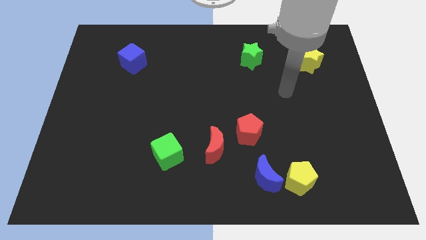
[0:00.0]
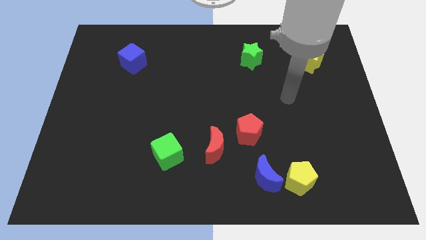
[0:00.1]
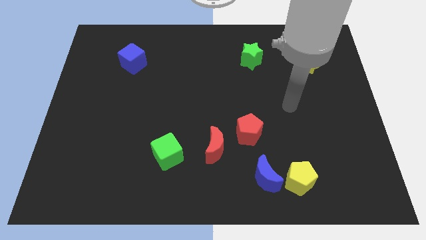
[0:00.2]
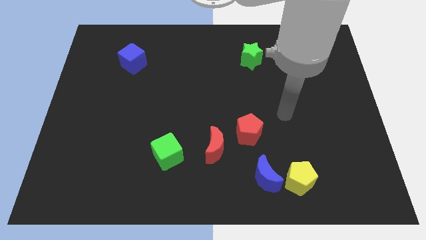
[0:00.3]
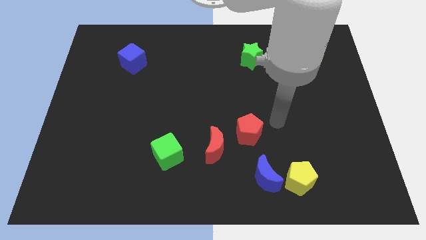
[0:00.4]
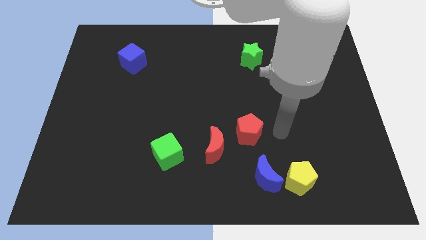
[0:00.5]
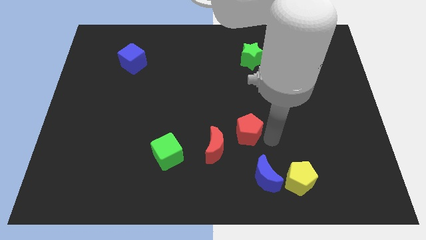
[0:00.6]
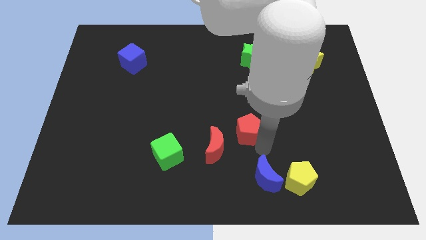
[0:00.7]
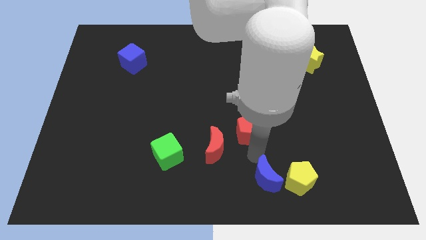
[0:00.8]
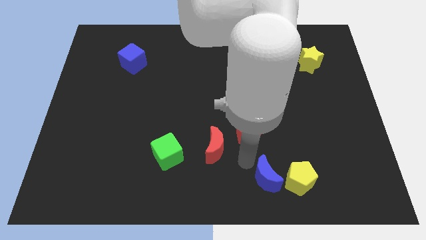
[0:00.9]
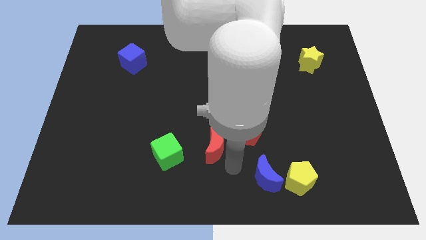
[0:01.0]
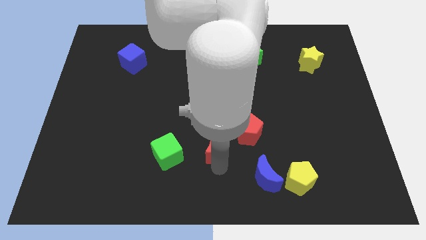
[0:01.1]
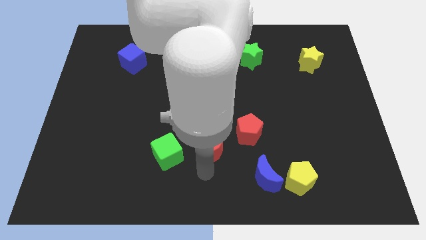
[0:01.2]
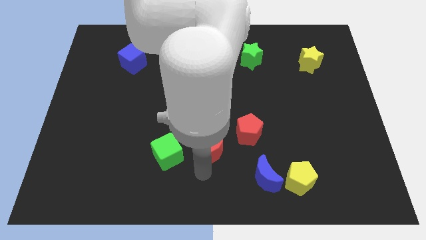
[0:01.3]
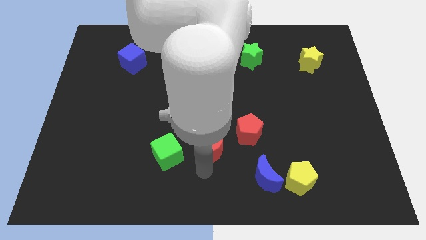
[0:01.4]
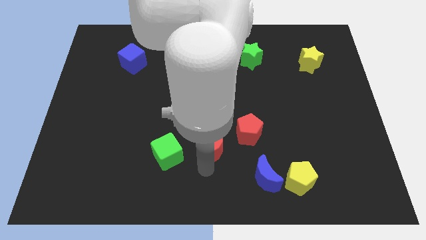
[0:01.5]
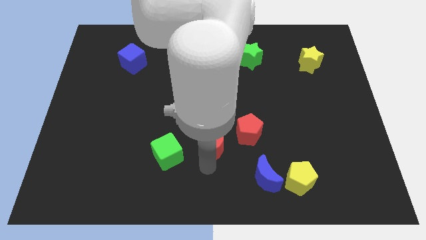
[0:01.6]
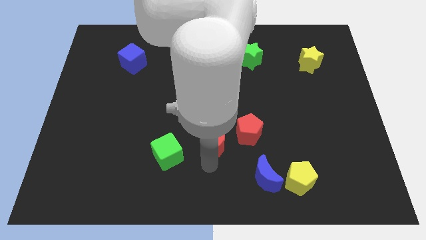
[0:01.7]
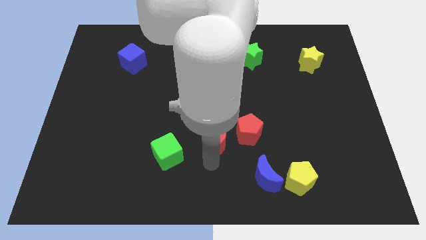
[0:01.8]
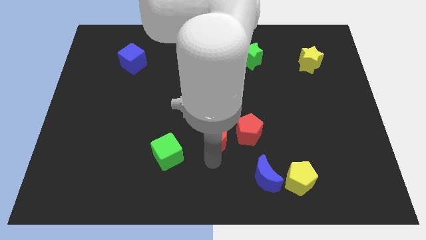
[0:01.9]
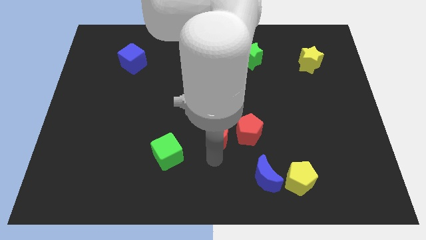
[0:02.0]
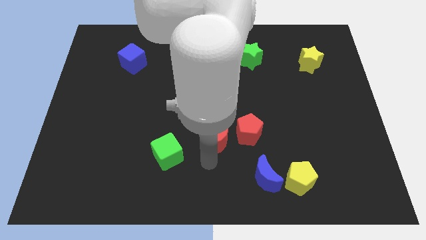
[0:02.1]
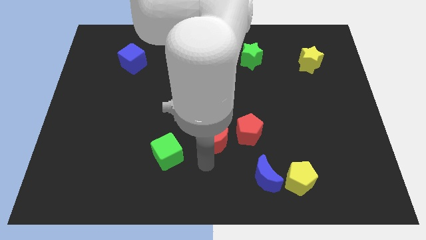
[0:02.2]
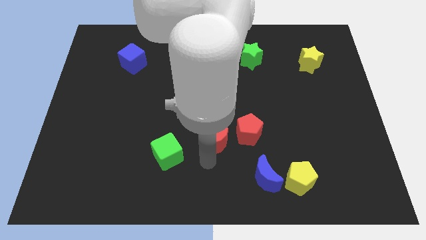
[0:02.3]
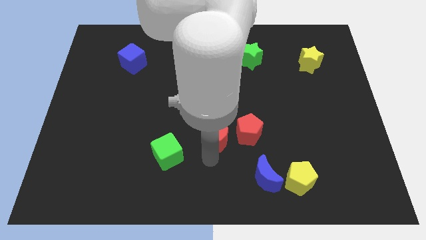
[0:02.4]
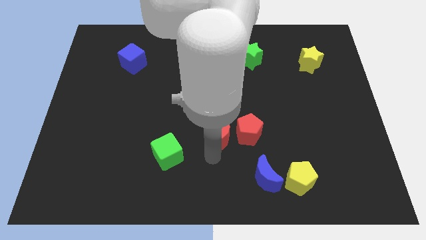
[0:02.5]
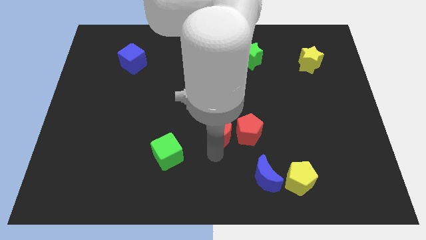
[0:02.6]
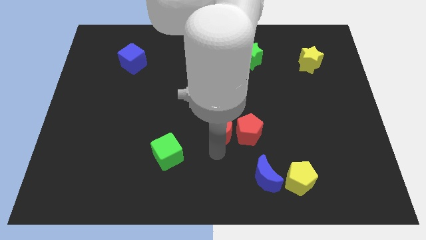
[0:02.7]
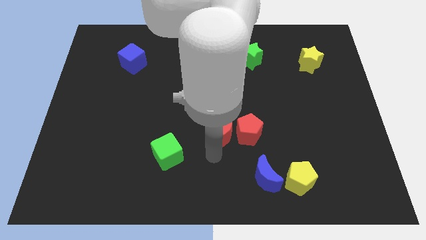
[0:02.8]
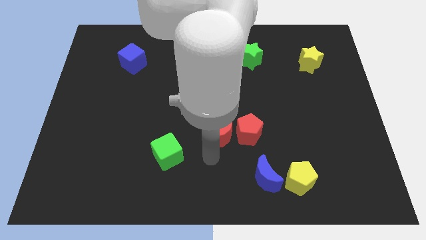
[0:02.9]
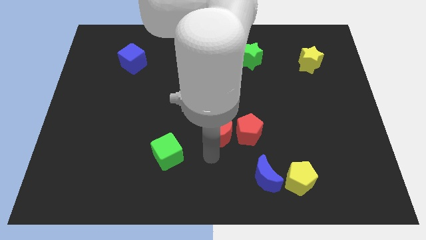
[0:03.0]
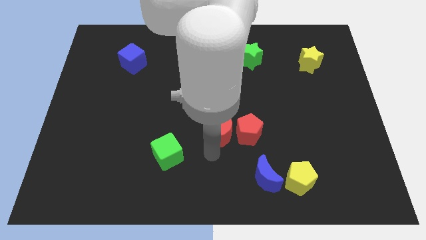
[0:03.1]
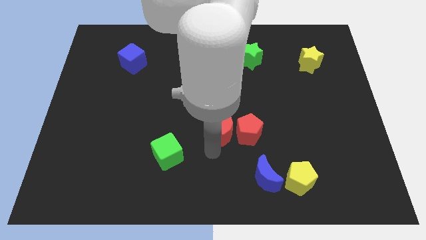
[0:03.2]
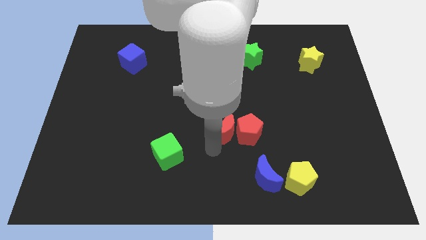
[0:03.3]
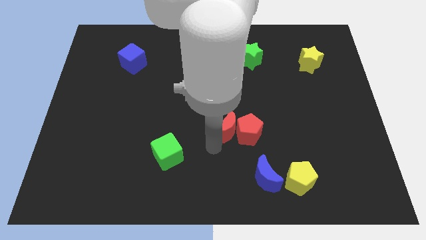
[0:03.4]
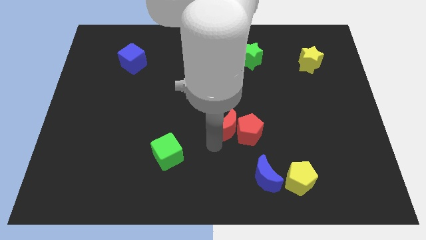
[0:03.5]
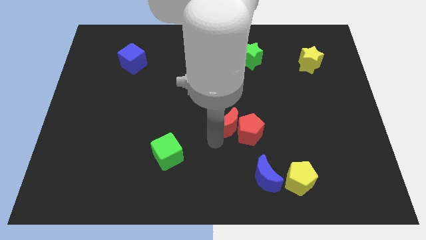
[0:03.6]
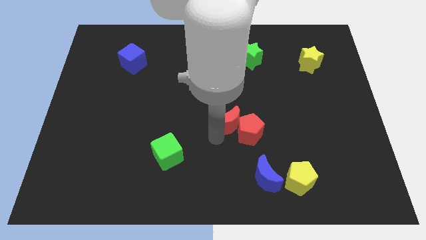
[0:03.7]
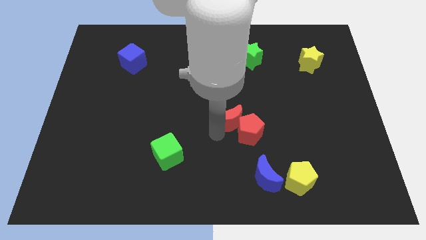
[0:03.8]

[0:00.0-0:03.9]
slightly push the red moon up and then right

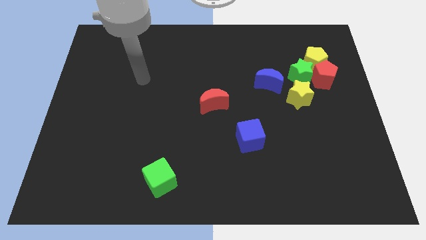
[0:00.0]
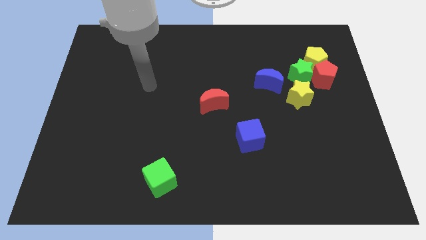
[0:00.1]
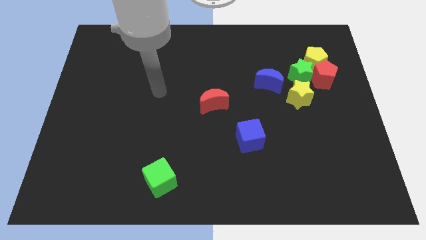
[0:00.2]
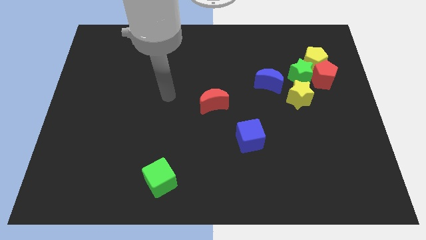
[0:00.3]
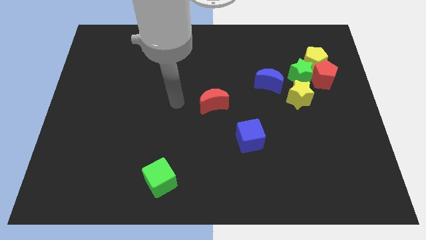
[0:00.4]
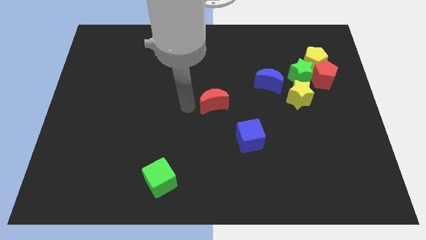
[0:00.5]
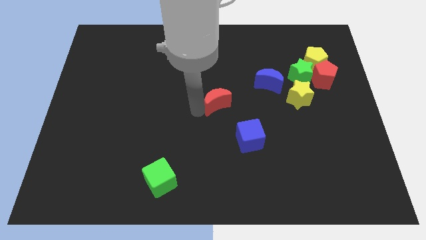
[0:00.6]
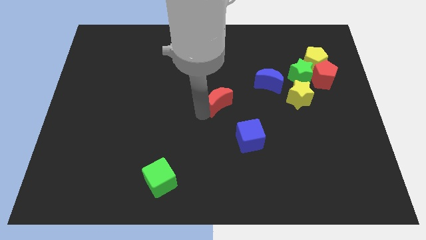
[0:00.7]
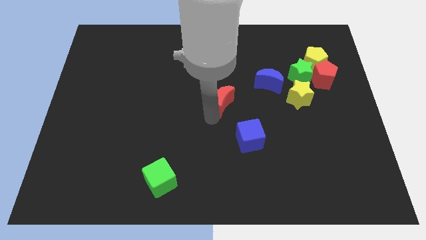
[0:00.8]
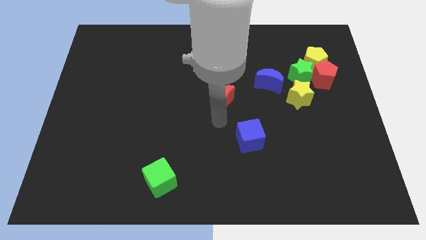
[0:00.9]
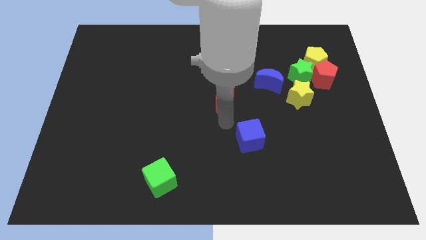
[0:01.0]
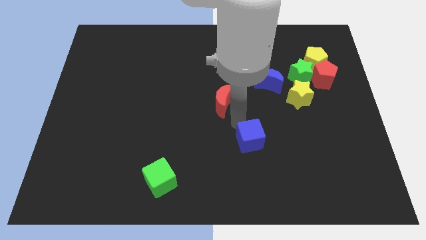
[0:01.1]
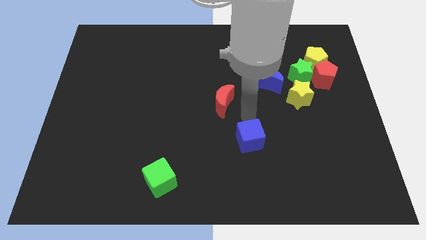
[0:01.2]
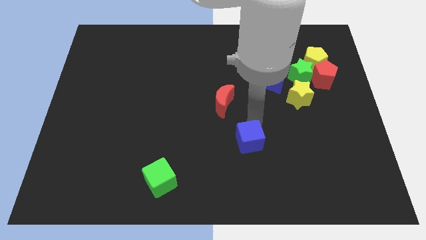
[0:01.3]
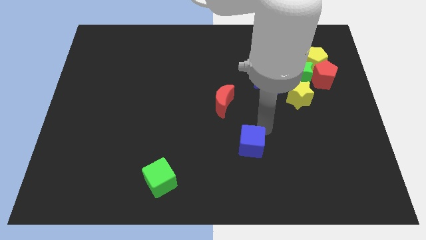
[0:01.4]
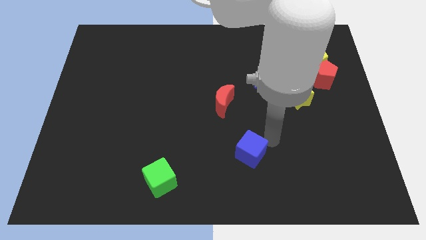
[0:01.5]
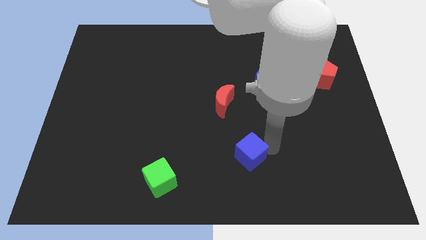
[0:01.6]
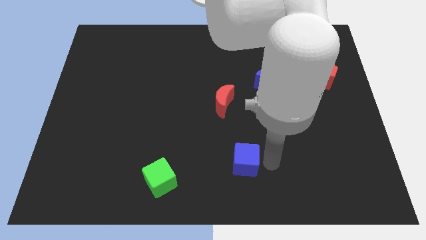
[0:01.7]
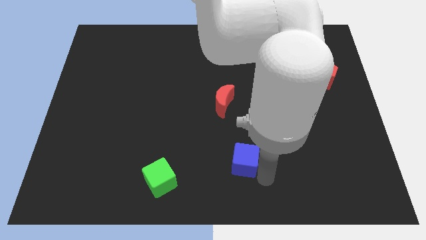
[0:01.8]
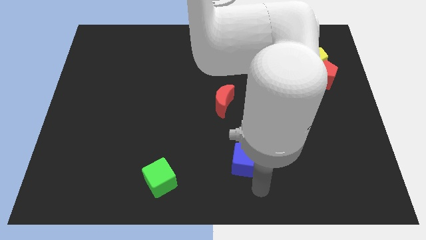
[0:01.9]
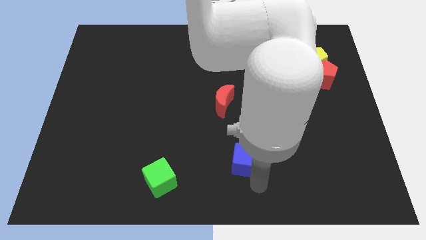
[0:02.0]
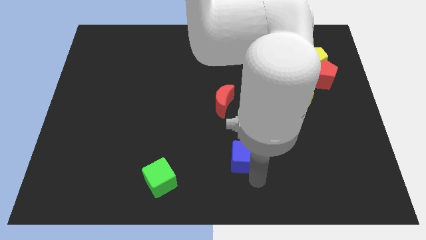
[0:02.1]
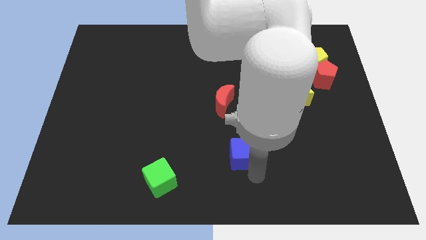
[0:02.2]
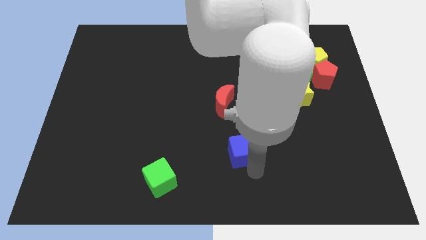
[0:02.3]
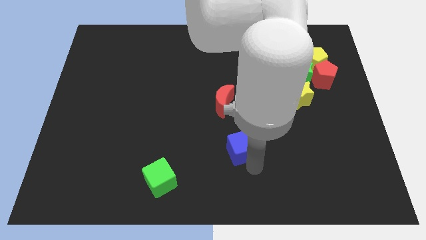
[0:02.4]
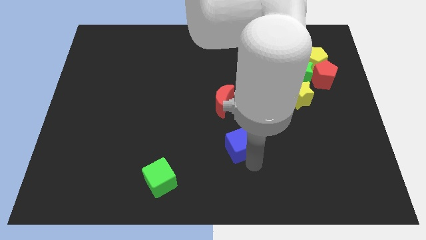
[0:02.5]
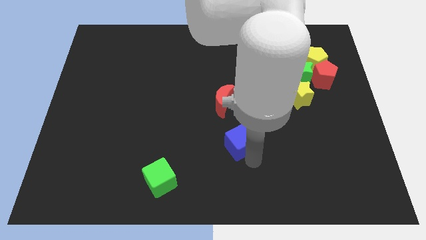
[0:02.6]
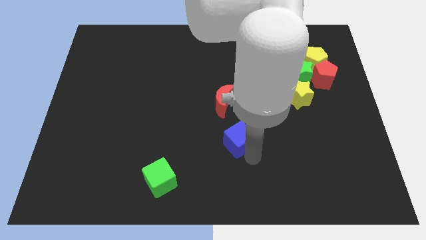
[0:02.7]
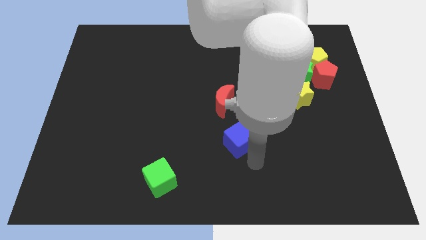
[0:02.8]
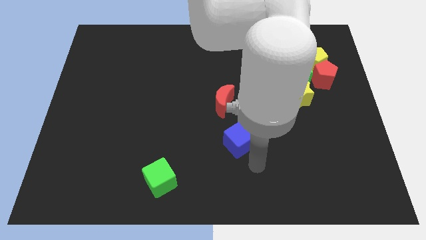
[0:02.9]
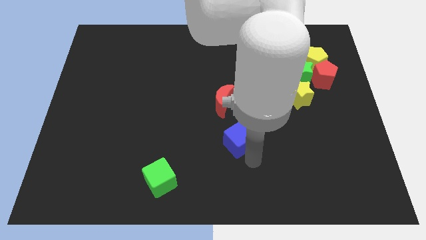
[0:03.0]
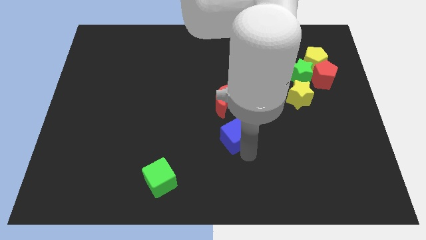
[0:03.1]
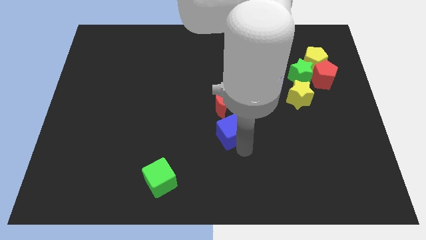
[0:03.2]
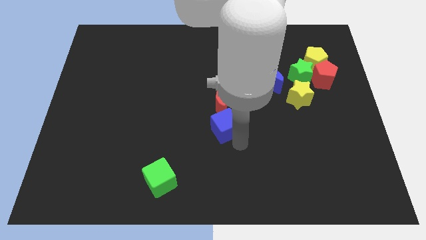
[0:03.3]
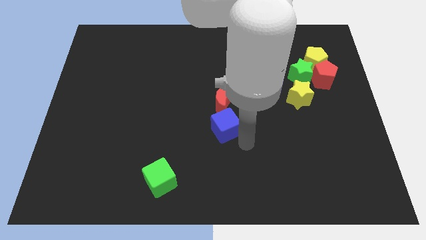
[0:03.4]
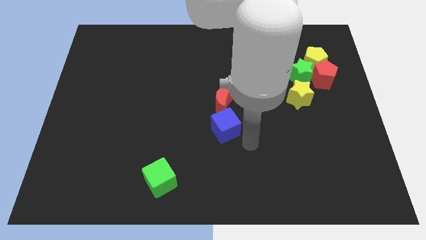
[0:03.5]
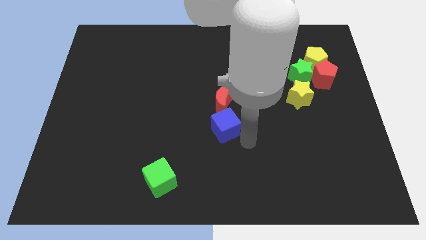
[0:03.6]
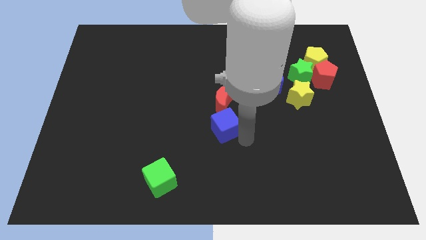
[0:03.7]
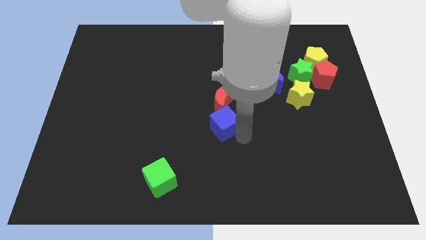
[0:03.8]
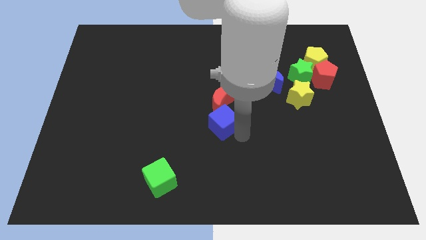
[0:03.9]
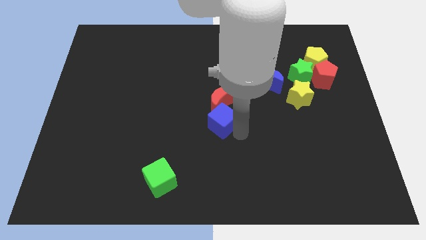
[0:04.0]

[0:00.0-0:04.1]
push the blue cube a bit upwards and to the left diagonally
